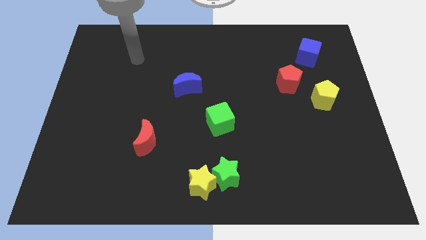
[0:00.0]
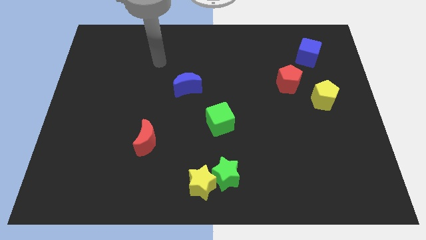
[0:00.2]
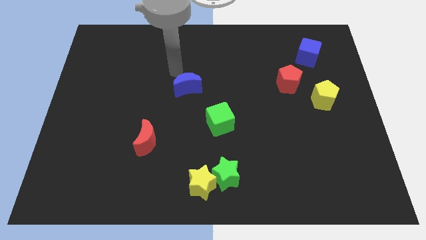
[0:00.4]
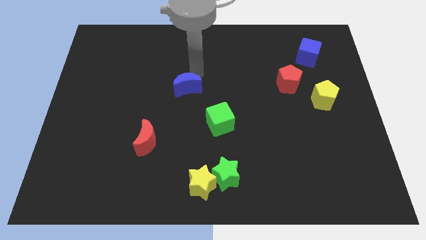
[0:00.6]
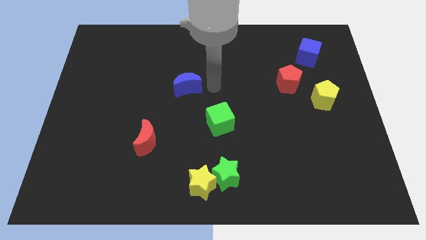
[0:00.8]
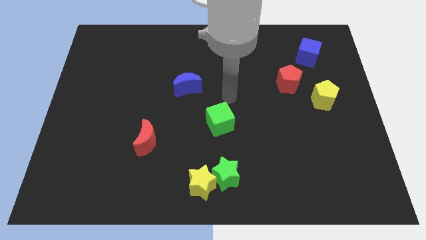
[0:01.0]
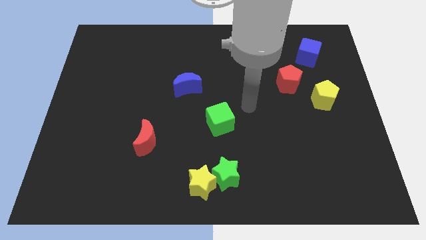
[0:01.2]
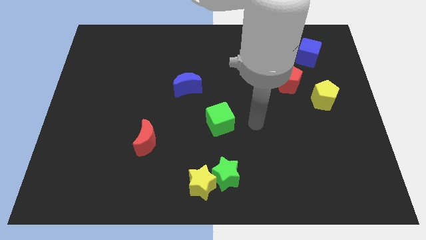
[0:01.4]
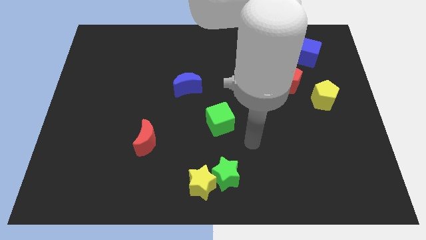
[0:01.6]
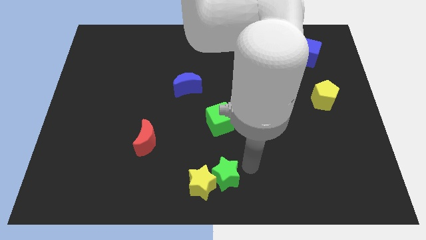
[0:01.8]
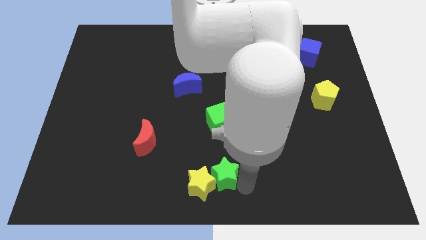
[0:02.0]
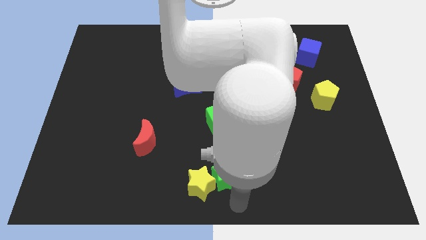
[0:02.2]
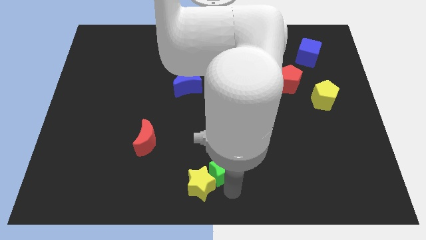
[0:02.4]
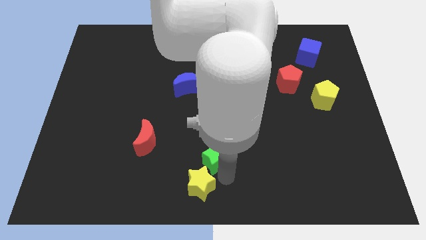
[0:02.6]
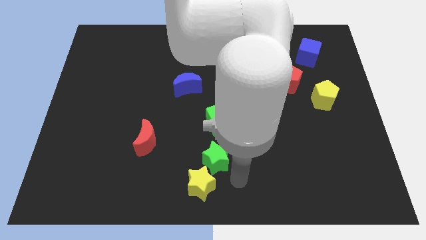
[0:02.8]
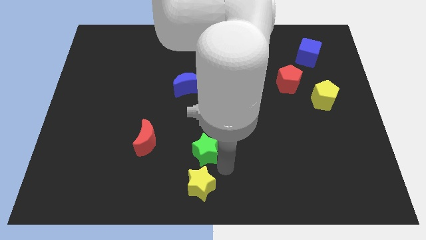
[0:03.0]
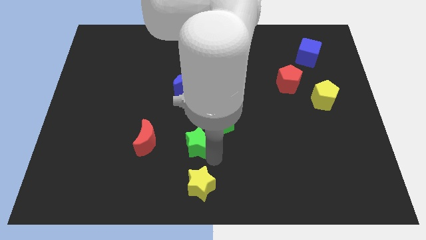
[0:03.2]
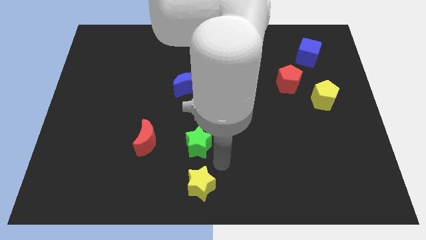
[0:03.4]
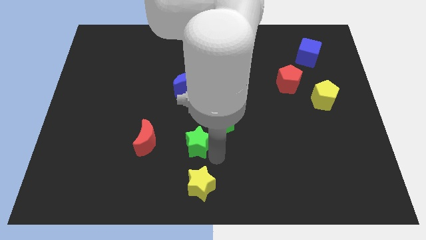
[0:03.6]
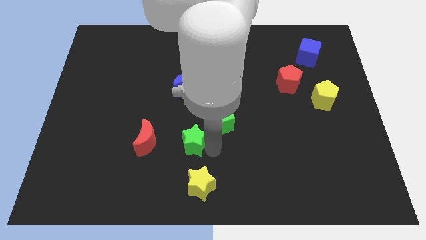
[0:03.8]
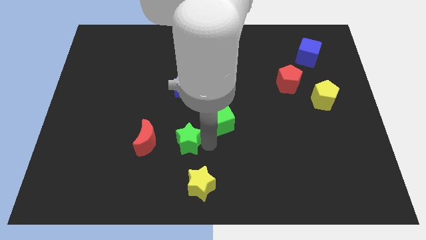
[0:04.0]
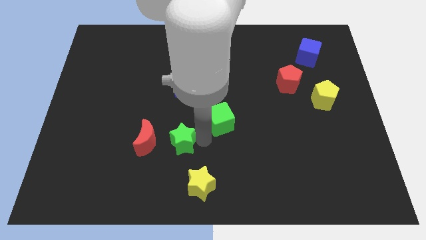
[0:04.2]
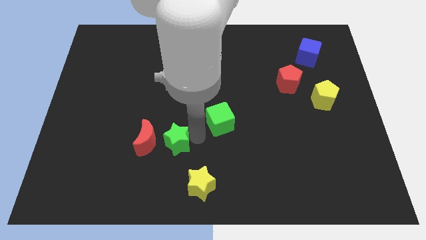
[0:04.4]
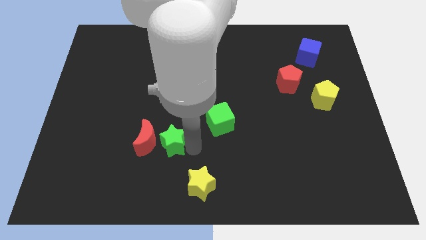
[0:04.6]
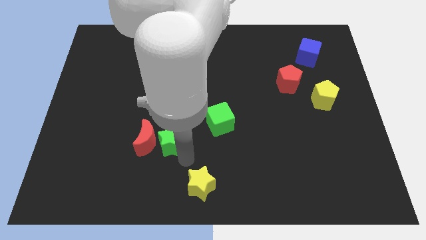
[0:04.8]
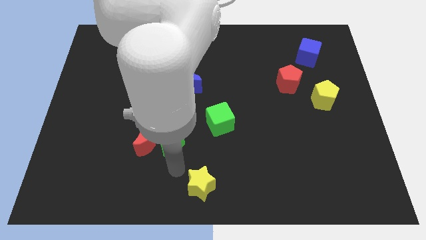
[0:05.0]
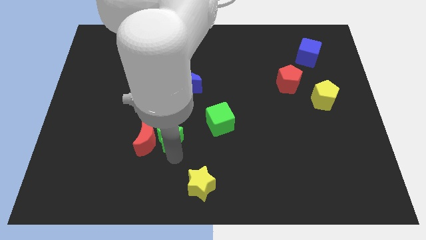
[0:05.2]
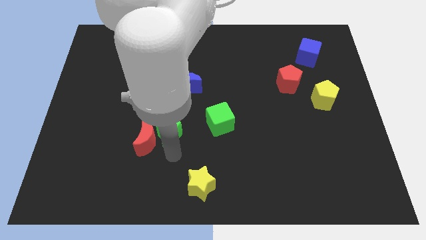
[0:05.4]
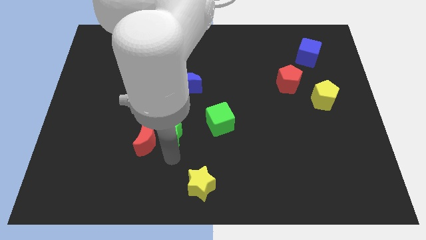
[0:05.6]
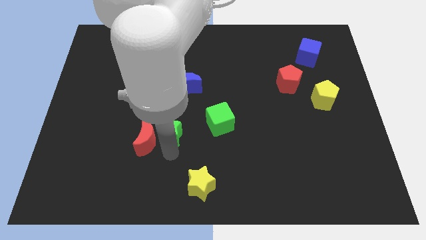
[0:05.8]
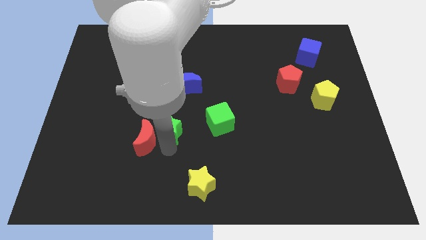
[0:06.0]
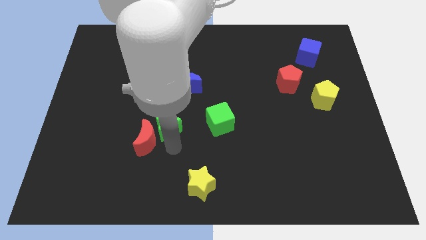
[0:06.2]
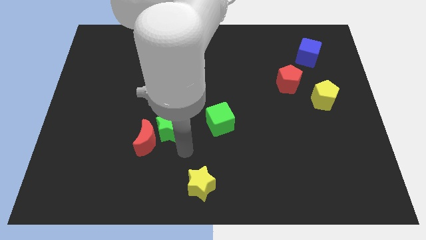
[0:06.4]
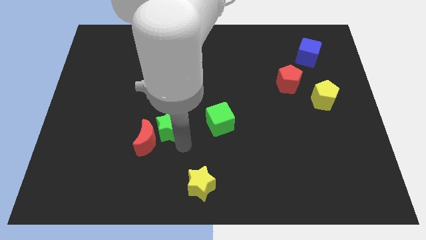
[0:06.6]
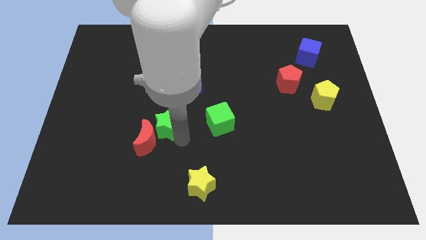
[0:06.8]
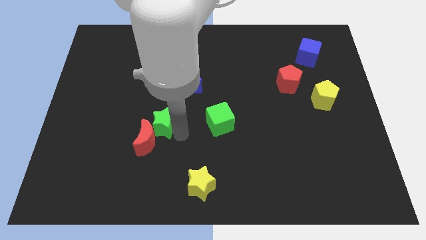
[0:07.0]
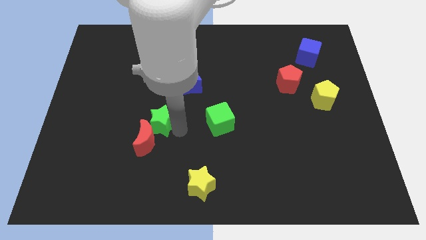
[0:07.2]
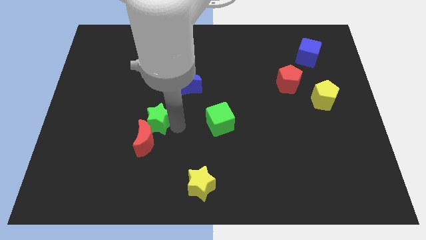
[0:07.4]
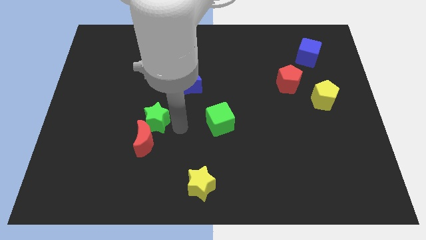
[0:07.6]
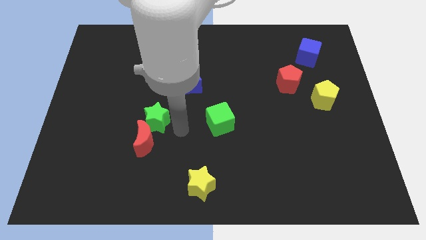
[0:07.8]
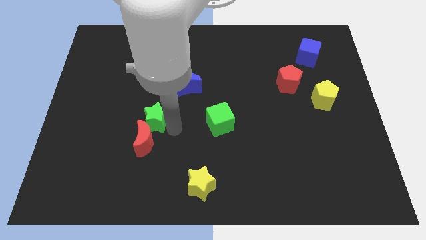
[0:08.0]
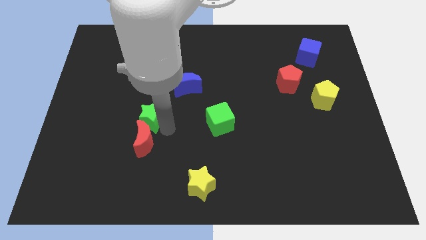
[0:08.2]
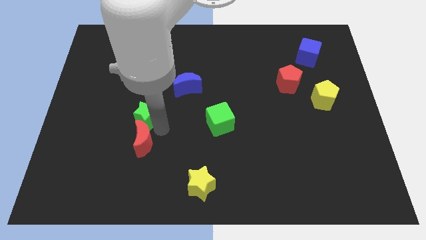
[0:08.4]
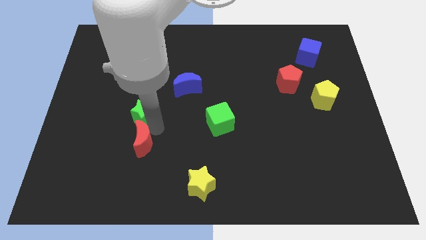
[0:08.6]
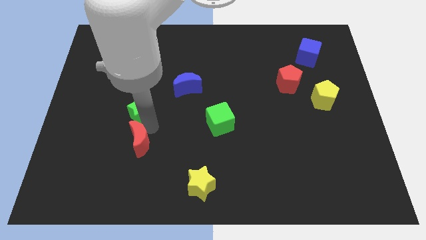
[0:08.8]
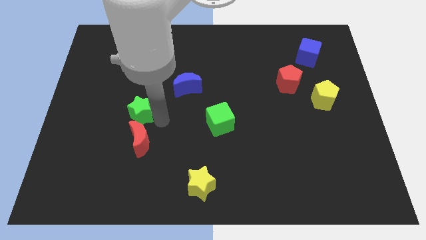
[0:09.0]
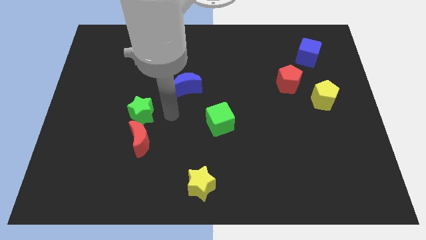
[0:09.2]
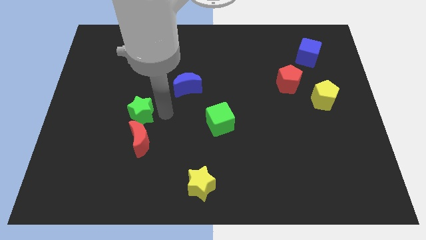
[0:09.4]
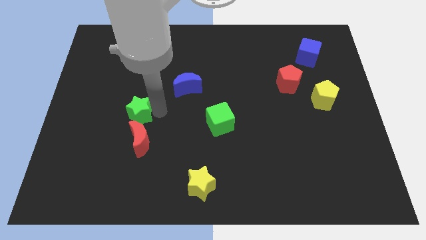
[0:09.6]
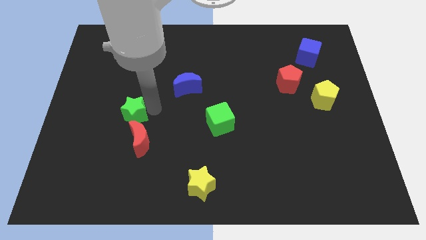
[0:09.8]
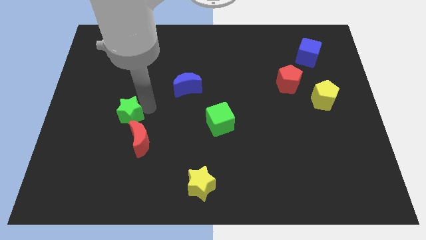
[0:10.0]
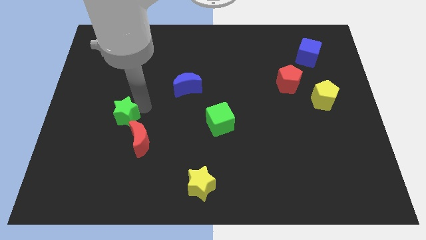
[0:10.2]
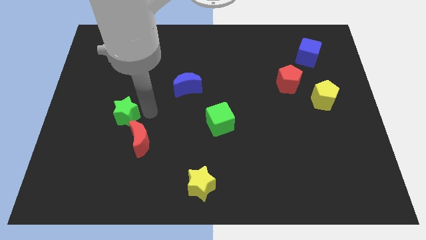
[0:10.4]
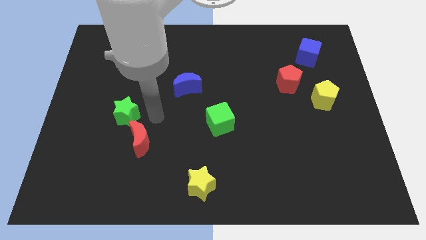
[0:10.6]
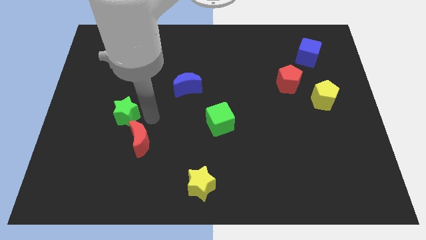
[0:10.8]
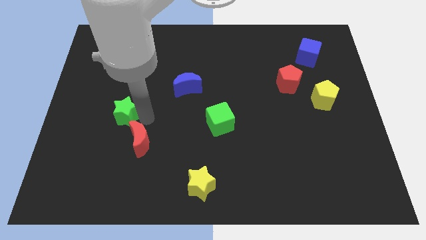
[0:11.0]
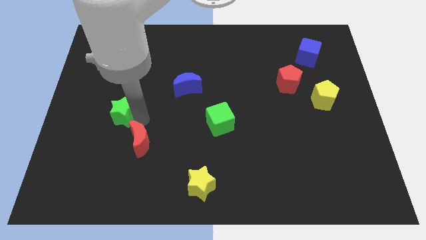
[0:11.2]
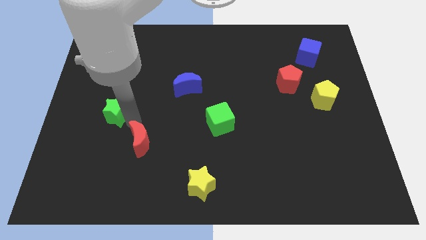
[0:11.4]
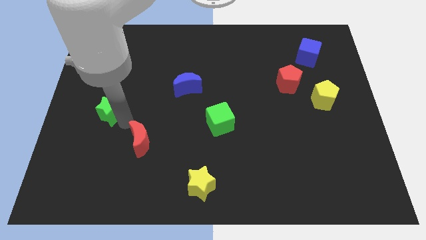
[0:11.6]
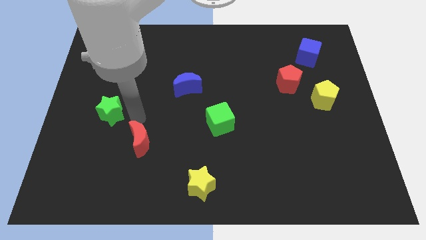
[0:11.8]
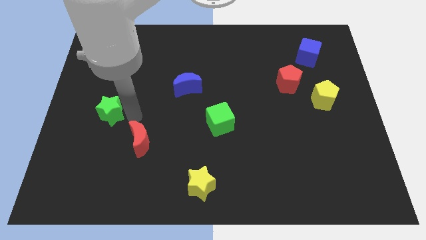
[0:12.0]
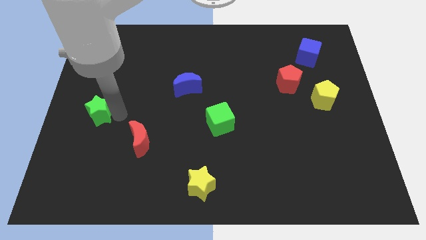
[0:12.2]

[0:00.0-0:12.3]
push the green star to the left side

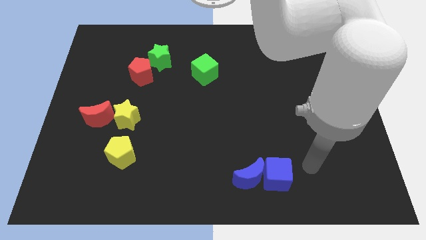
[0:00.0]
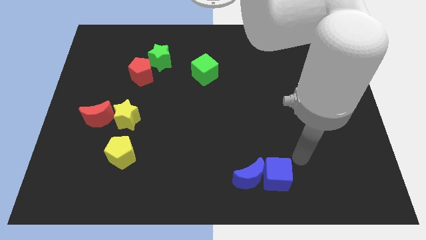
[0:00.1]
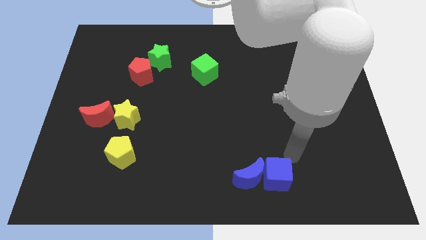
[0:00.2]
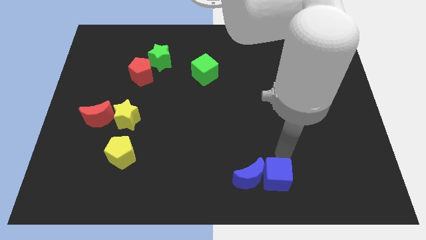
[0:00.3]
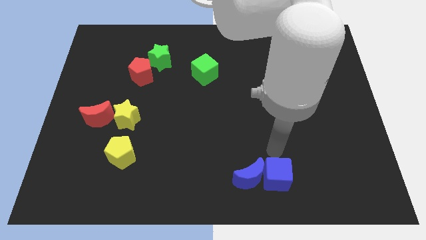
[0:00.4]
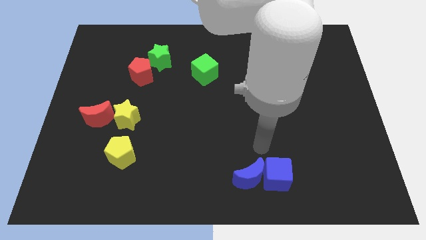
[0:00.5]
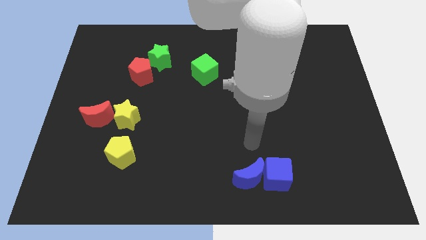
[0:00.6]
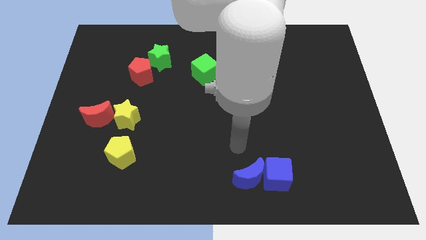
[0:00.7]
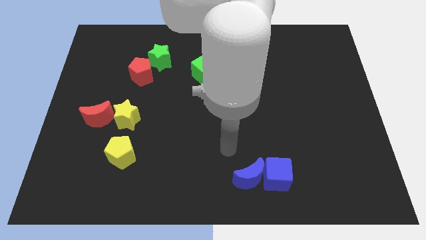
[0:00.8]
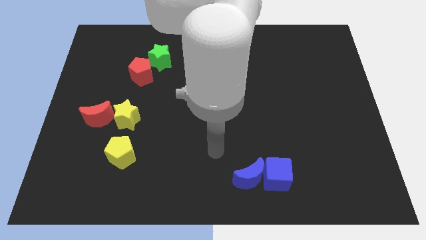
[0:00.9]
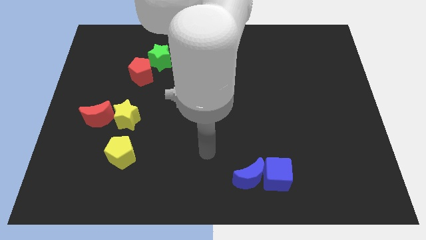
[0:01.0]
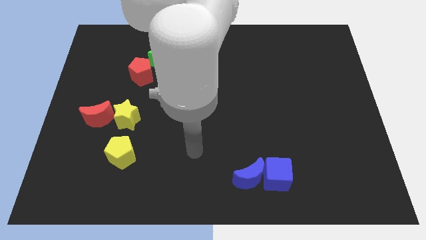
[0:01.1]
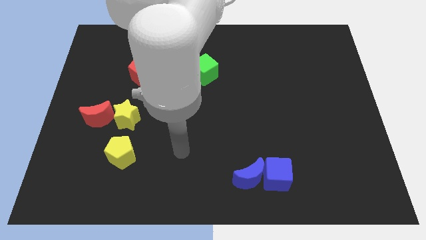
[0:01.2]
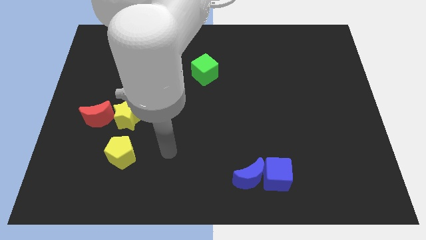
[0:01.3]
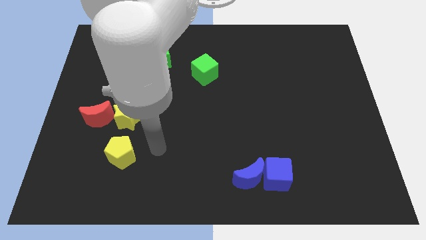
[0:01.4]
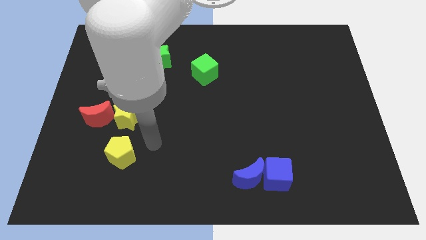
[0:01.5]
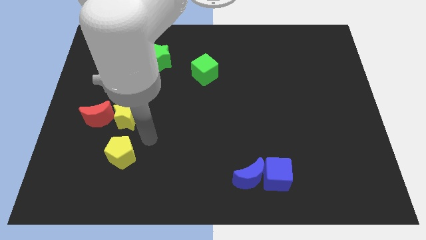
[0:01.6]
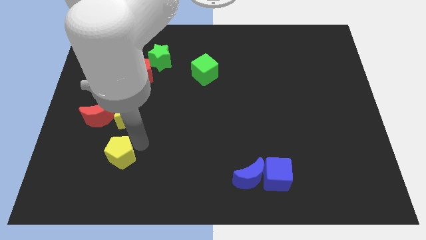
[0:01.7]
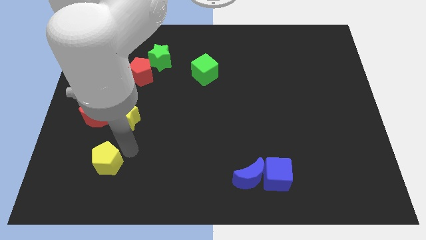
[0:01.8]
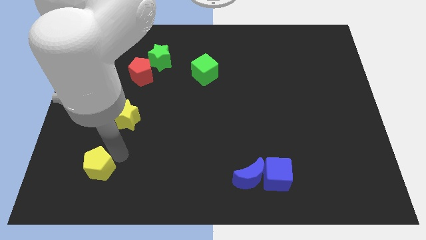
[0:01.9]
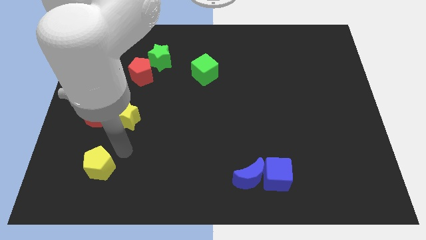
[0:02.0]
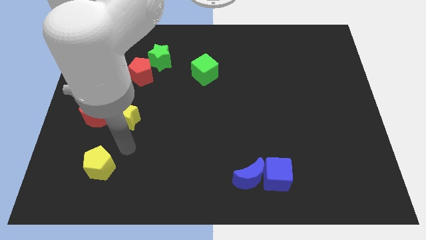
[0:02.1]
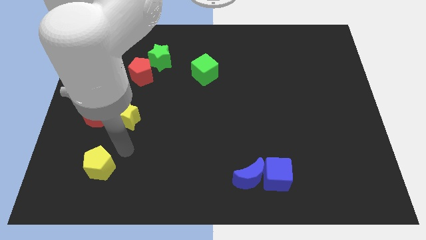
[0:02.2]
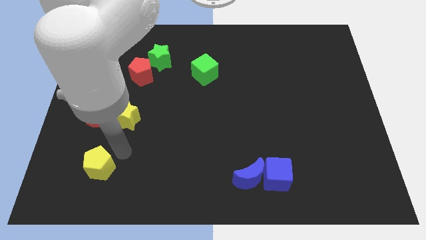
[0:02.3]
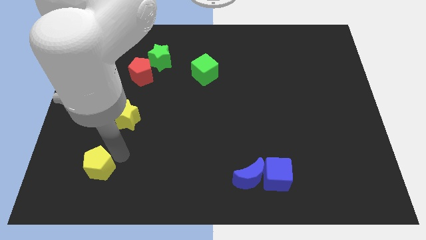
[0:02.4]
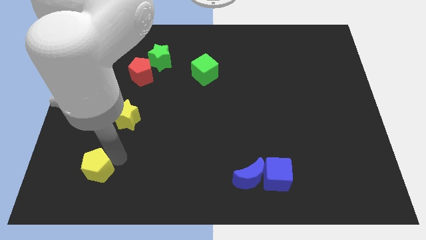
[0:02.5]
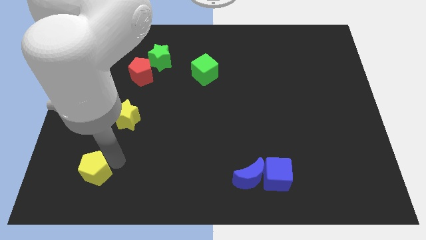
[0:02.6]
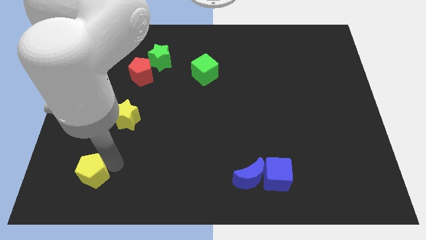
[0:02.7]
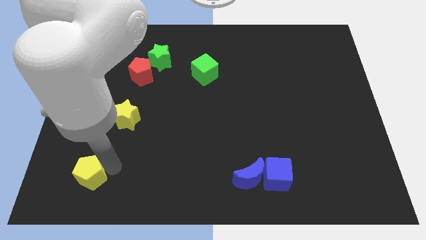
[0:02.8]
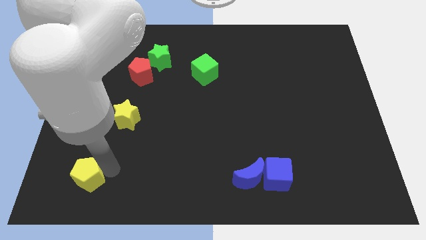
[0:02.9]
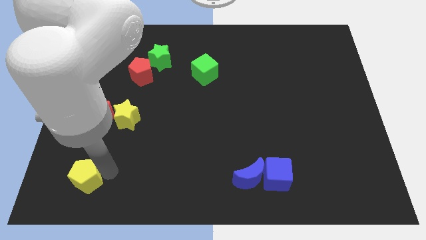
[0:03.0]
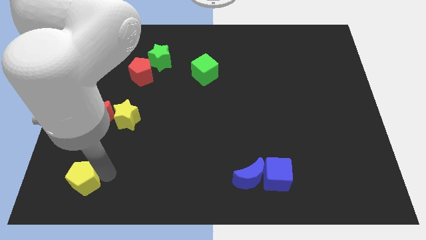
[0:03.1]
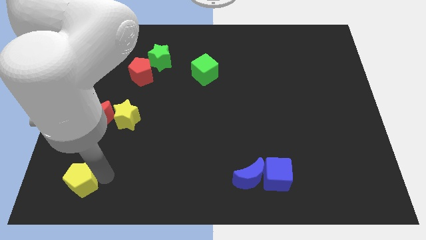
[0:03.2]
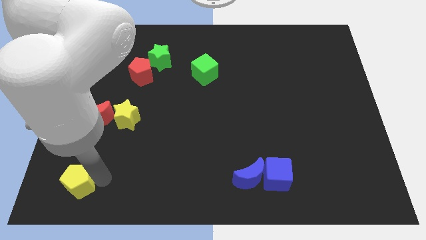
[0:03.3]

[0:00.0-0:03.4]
move the yellow pentagon to the lower left corner
